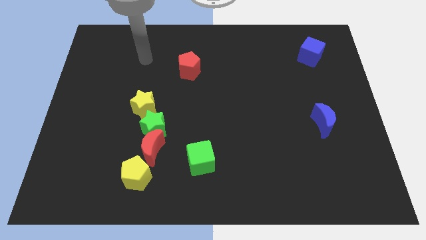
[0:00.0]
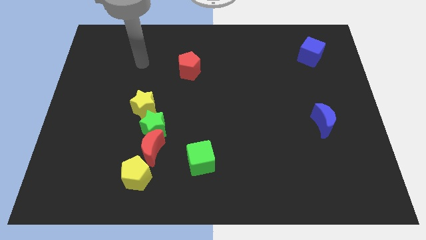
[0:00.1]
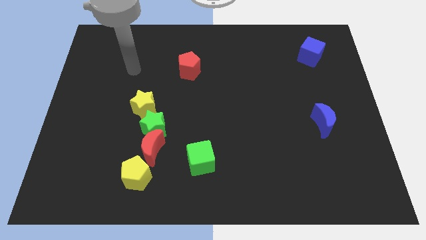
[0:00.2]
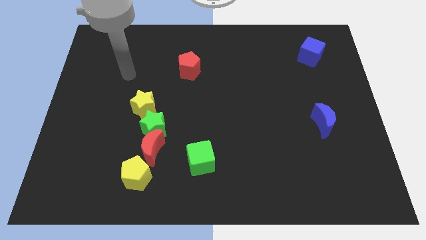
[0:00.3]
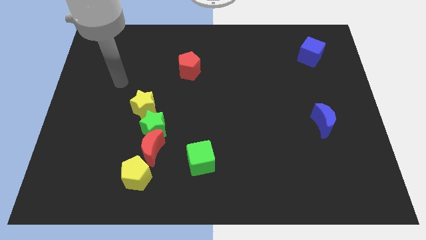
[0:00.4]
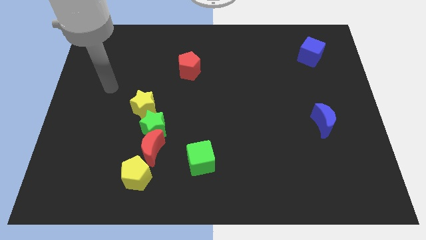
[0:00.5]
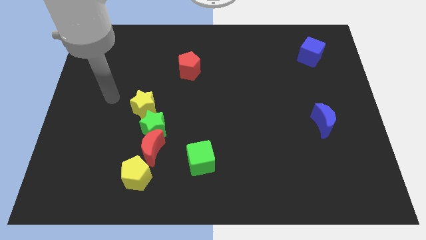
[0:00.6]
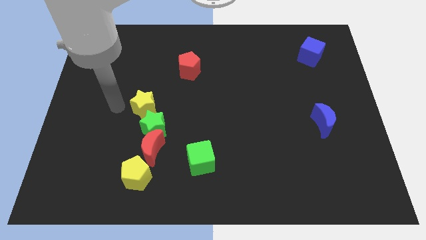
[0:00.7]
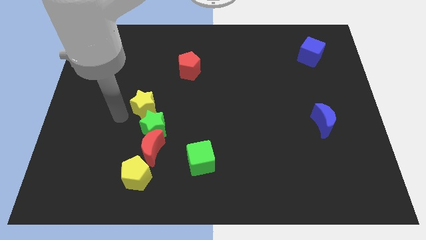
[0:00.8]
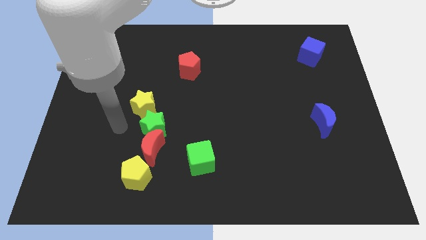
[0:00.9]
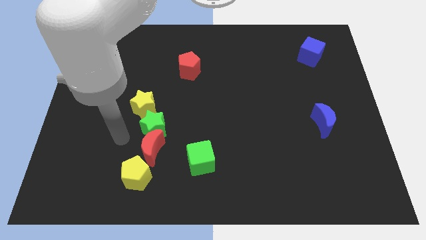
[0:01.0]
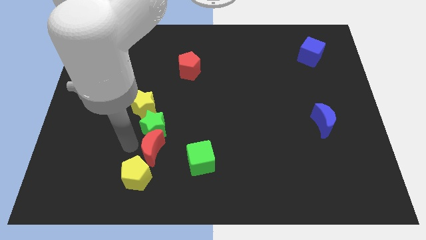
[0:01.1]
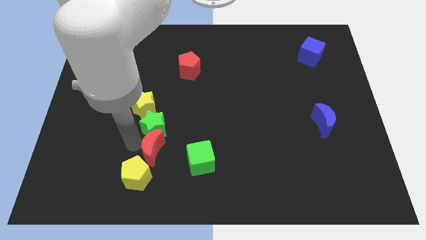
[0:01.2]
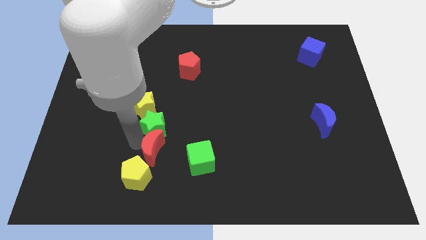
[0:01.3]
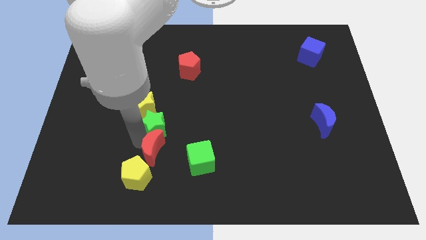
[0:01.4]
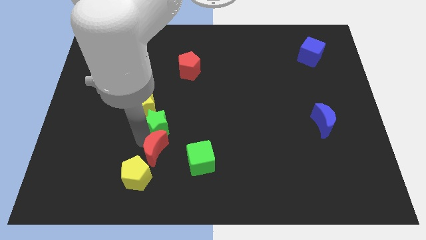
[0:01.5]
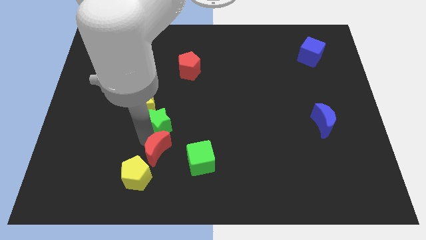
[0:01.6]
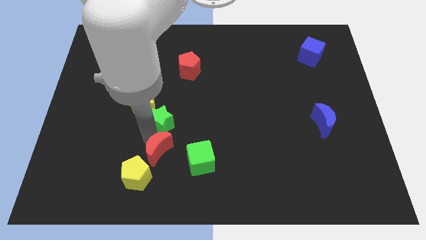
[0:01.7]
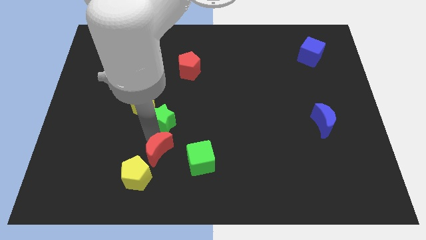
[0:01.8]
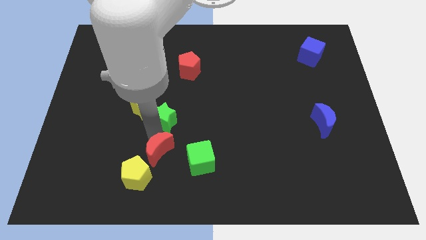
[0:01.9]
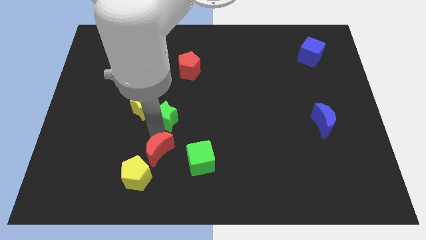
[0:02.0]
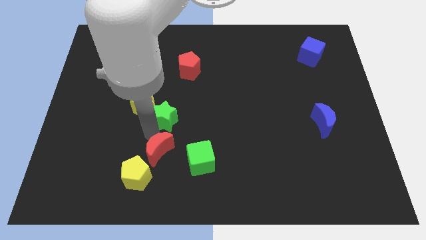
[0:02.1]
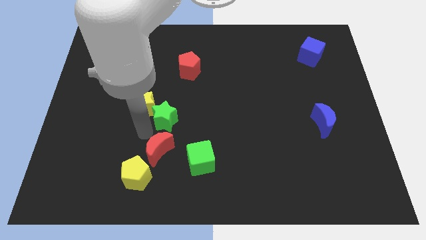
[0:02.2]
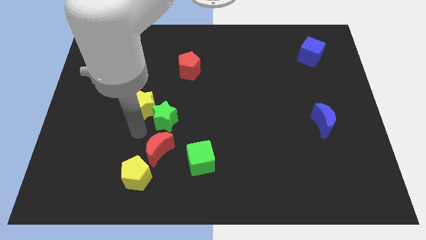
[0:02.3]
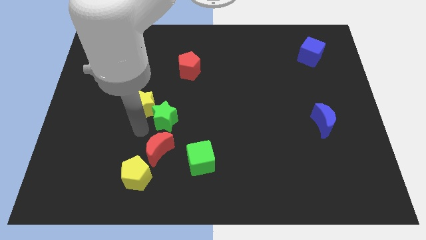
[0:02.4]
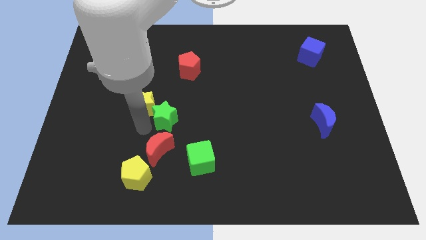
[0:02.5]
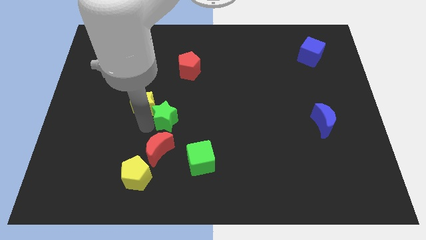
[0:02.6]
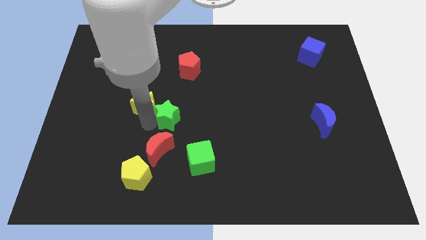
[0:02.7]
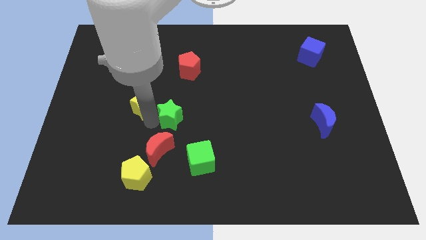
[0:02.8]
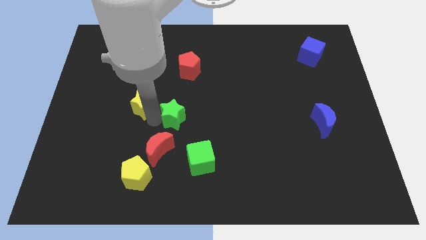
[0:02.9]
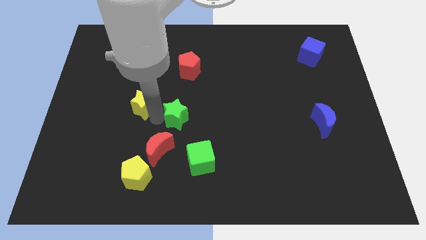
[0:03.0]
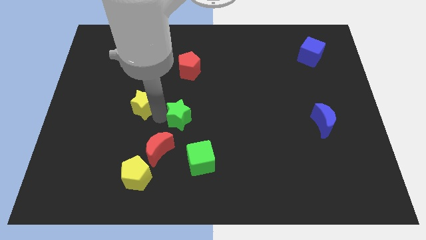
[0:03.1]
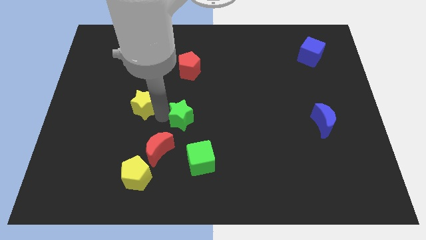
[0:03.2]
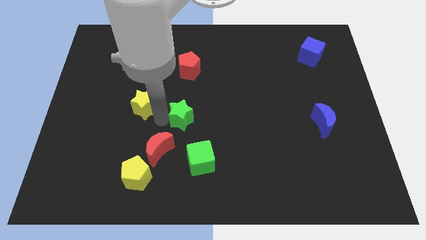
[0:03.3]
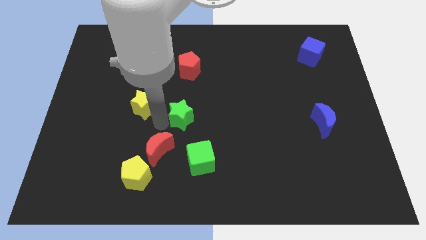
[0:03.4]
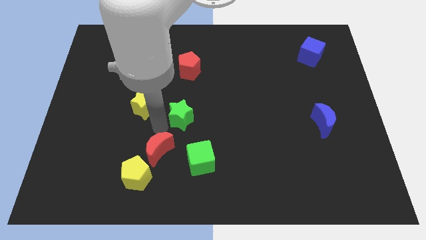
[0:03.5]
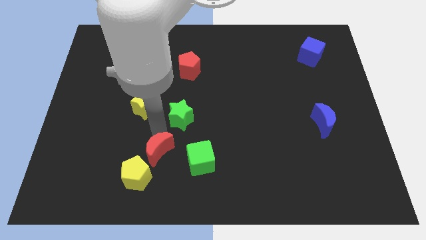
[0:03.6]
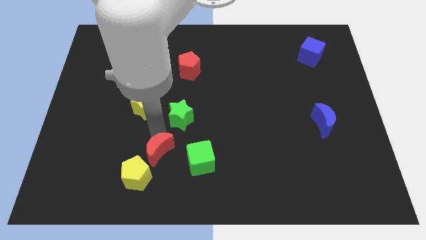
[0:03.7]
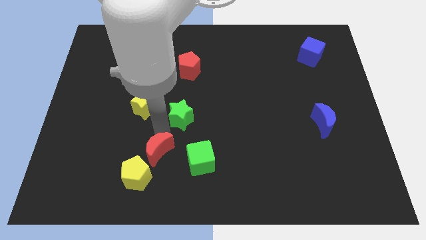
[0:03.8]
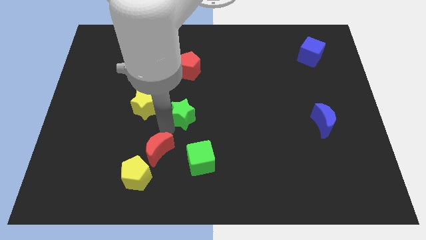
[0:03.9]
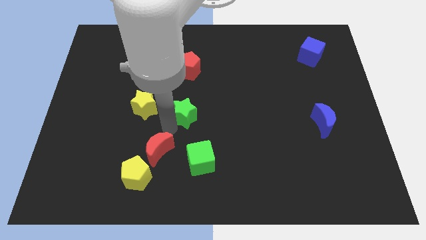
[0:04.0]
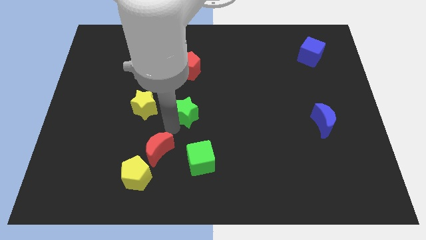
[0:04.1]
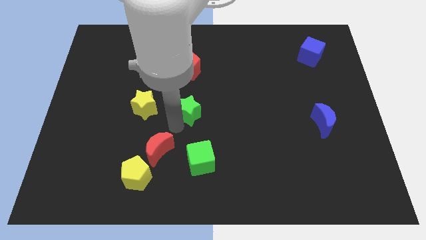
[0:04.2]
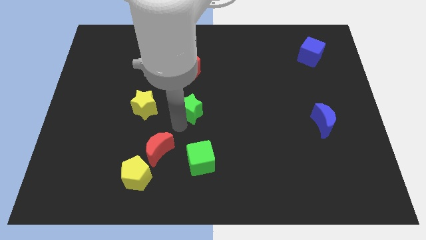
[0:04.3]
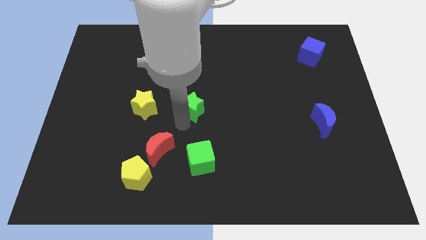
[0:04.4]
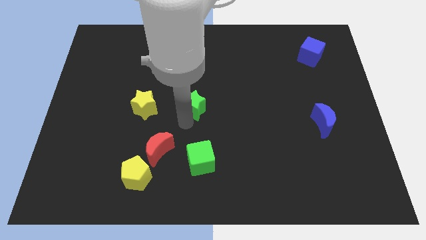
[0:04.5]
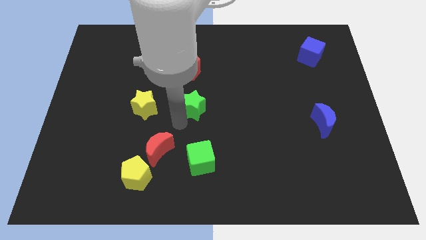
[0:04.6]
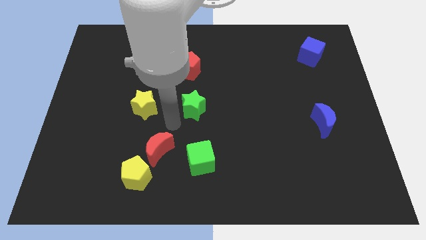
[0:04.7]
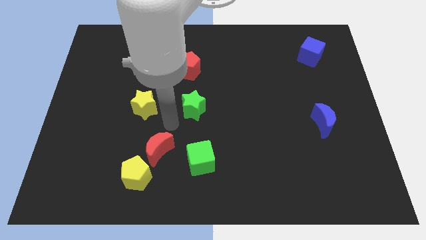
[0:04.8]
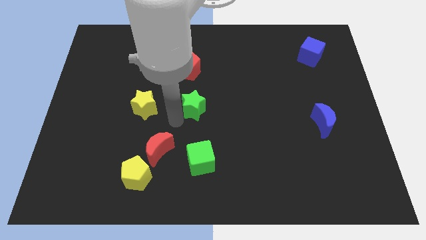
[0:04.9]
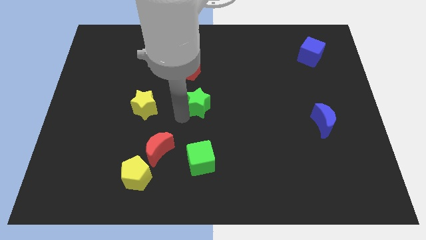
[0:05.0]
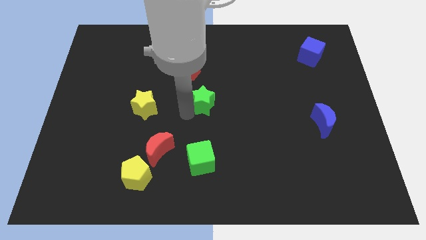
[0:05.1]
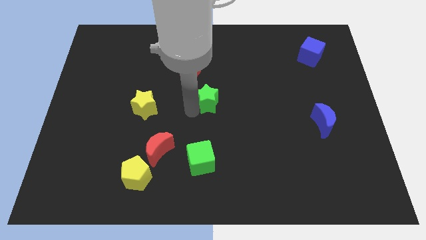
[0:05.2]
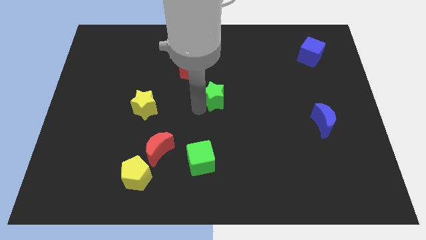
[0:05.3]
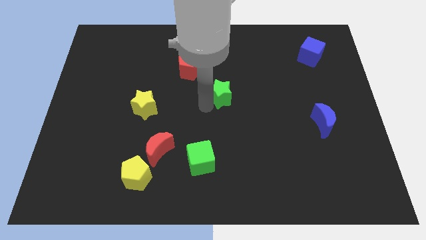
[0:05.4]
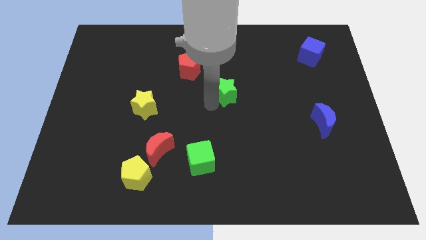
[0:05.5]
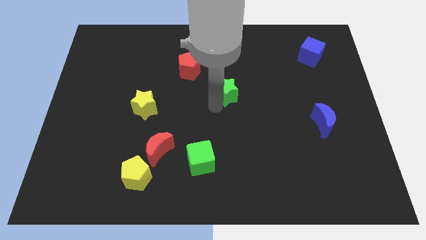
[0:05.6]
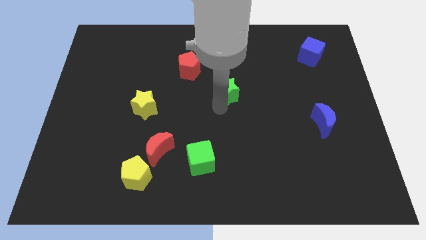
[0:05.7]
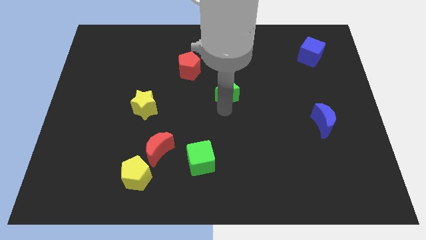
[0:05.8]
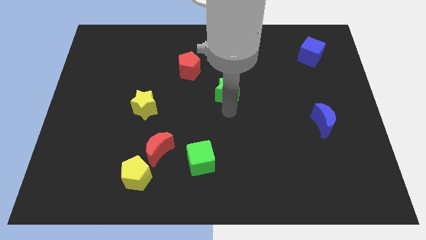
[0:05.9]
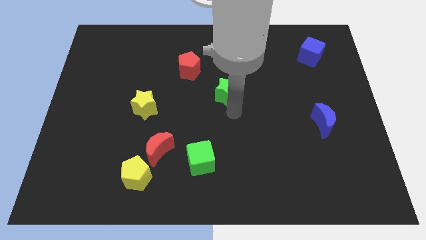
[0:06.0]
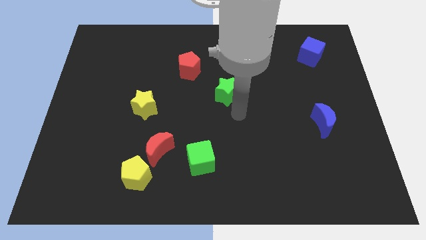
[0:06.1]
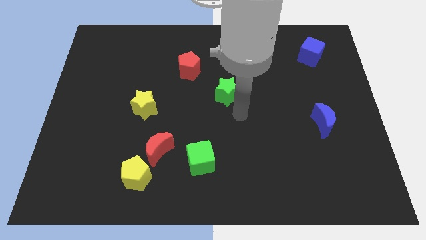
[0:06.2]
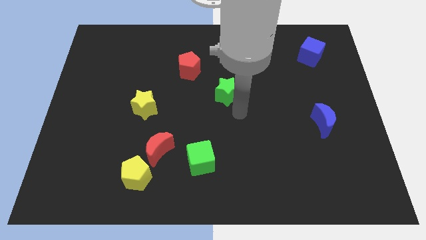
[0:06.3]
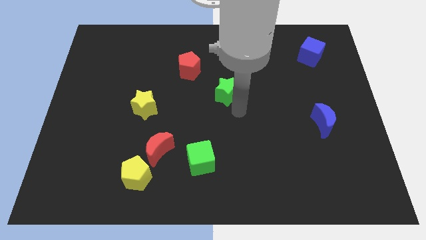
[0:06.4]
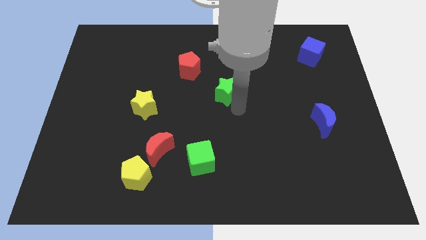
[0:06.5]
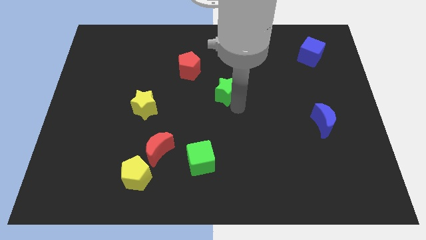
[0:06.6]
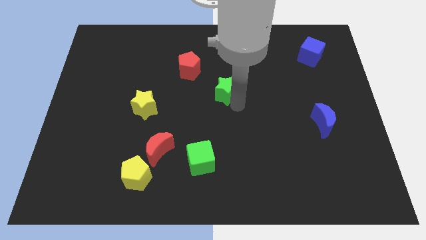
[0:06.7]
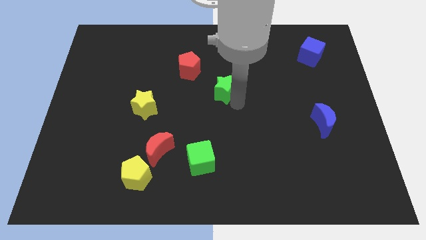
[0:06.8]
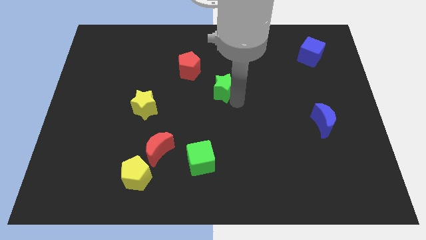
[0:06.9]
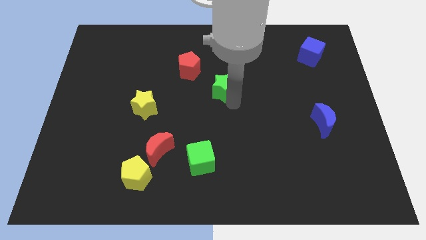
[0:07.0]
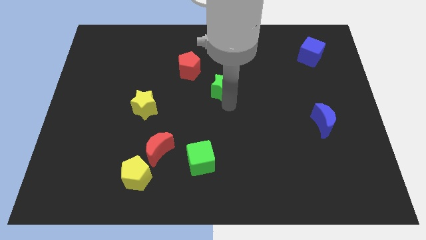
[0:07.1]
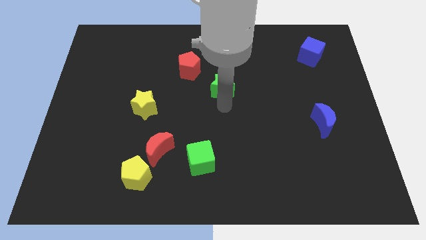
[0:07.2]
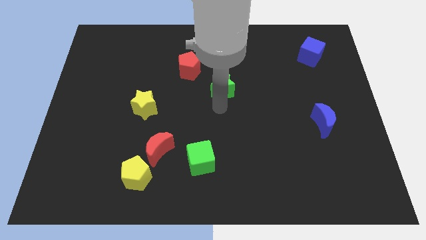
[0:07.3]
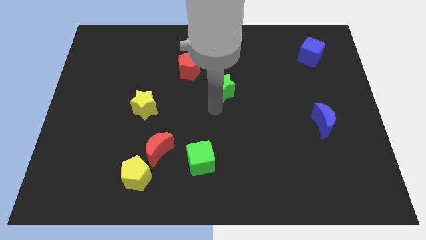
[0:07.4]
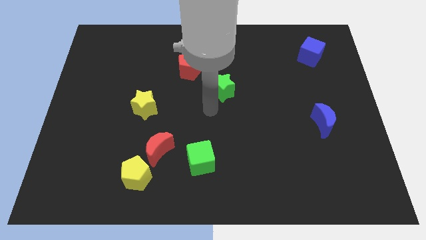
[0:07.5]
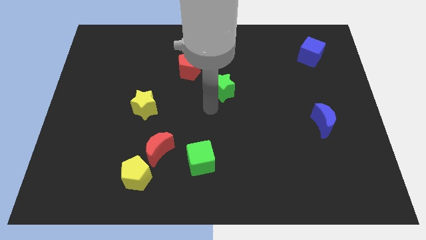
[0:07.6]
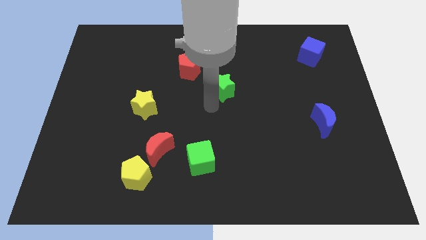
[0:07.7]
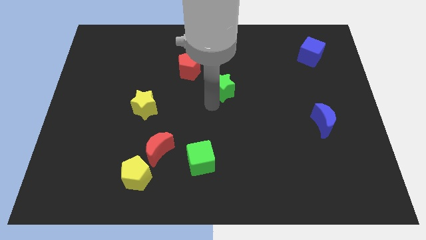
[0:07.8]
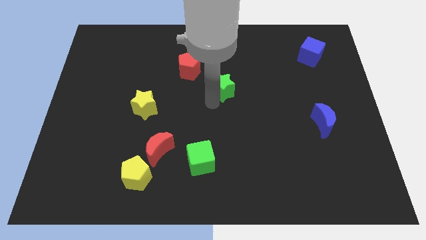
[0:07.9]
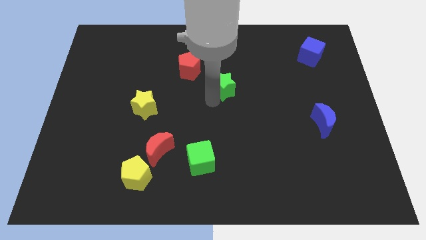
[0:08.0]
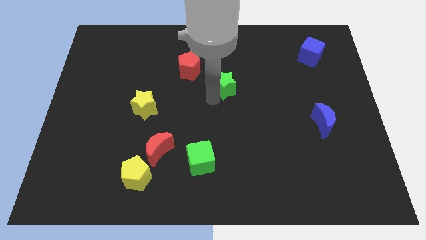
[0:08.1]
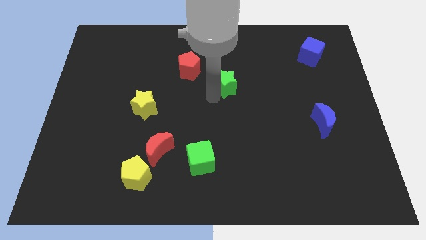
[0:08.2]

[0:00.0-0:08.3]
move the green star diagonally upwards and right
